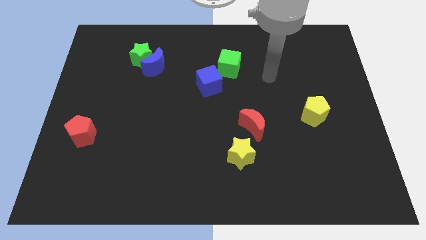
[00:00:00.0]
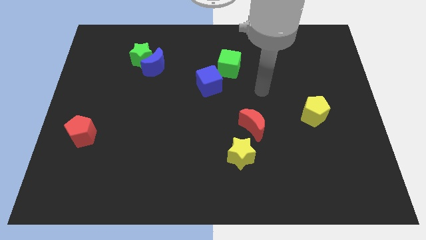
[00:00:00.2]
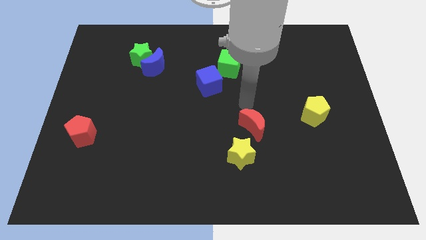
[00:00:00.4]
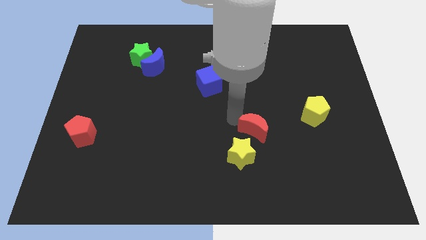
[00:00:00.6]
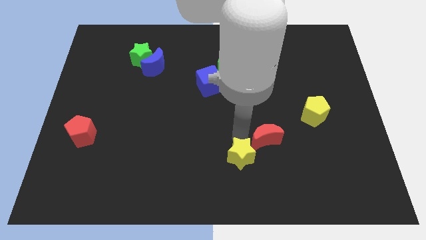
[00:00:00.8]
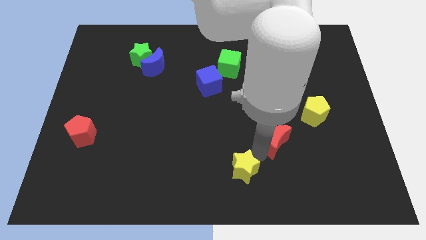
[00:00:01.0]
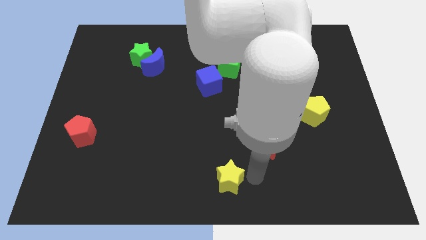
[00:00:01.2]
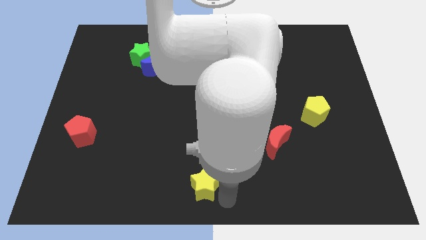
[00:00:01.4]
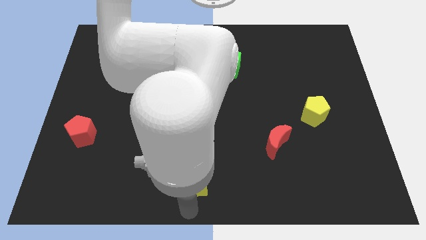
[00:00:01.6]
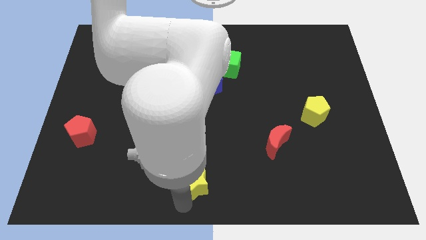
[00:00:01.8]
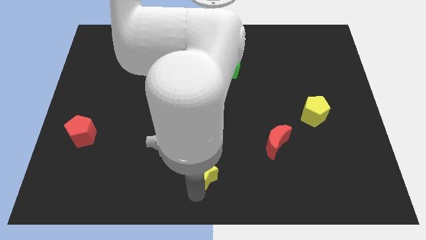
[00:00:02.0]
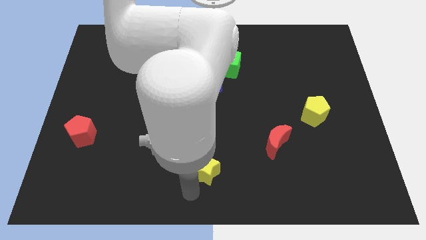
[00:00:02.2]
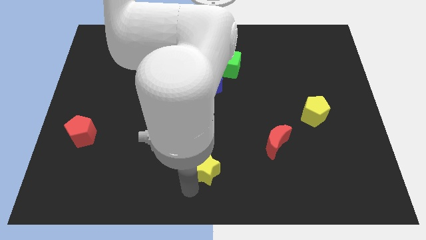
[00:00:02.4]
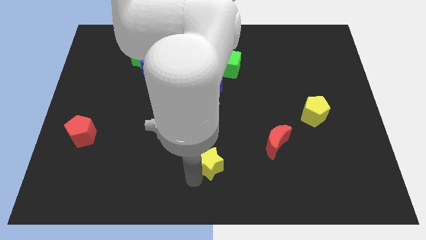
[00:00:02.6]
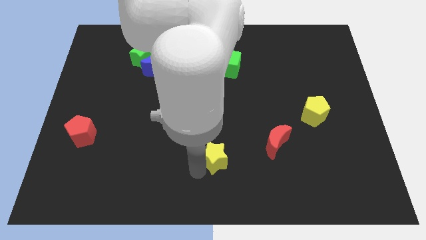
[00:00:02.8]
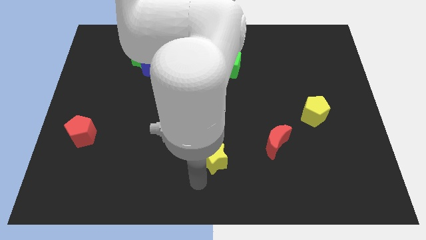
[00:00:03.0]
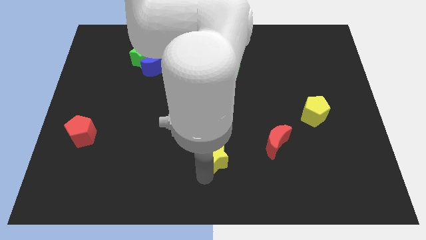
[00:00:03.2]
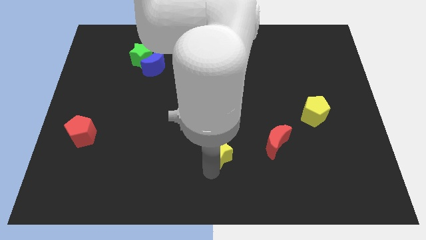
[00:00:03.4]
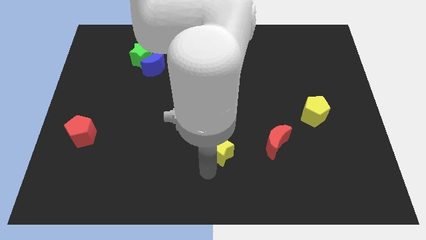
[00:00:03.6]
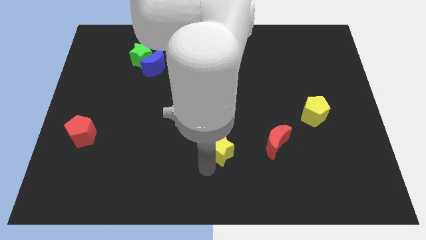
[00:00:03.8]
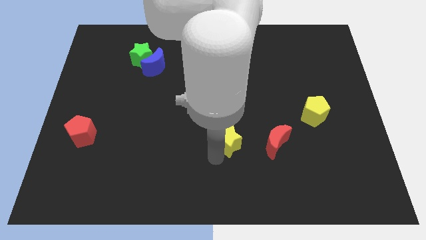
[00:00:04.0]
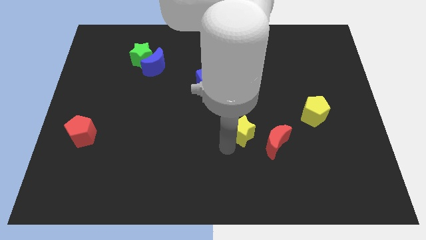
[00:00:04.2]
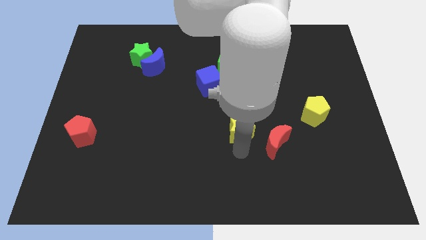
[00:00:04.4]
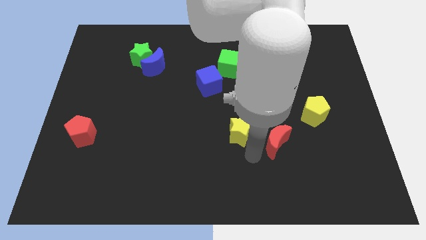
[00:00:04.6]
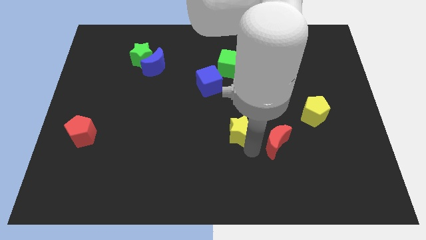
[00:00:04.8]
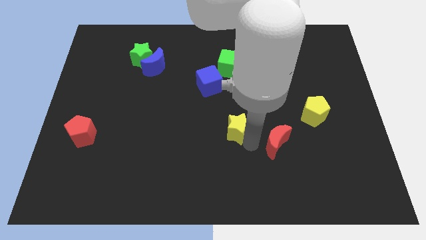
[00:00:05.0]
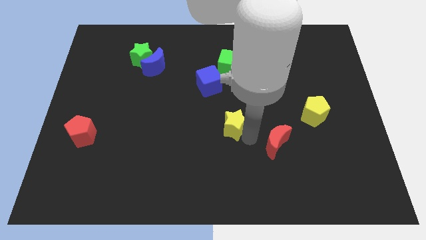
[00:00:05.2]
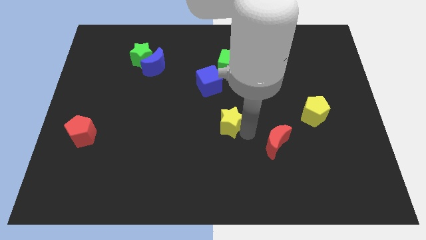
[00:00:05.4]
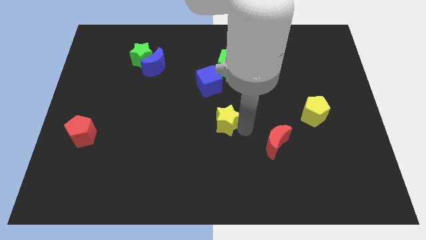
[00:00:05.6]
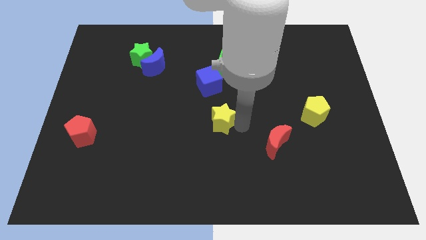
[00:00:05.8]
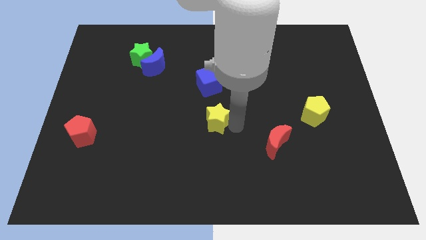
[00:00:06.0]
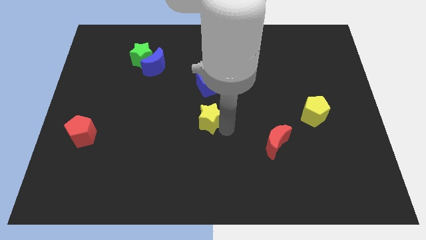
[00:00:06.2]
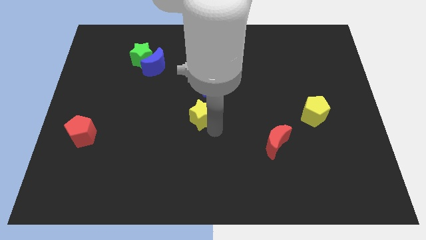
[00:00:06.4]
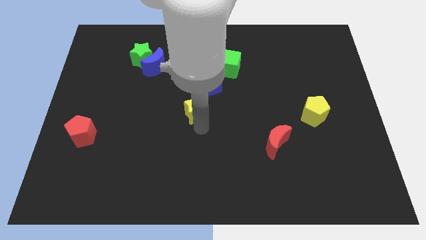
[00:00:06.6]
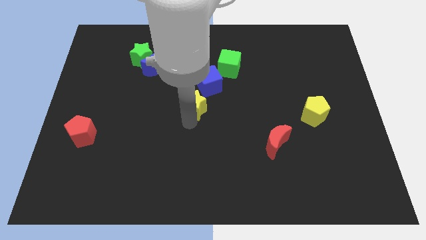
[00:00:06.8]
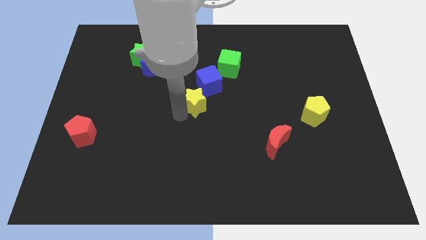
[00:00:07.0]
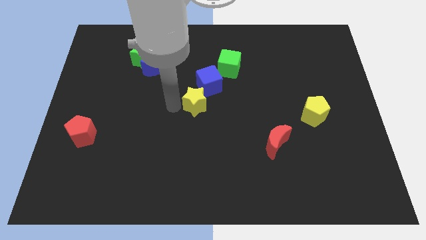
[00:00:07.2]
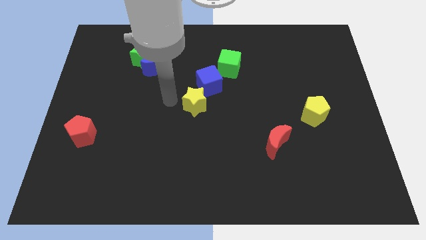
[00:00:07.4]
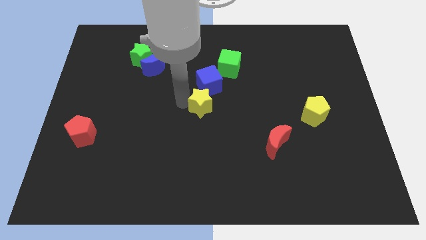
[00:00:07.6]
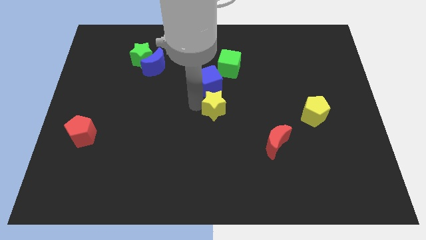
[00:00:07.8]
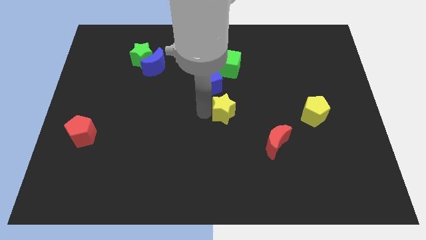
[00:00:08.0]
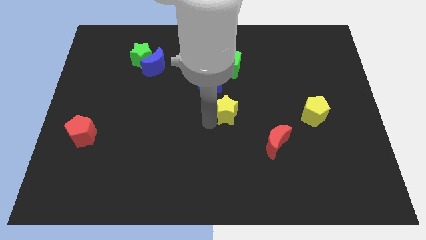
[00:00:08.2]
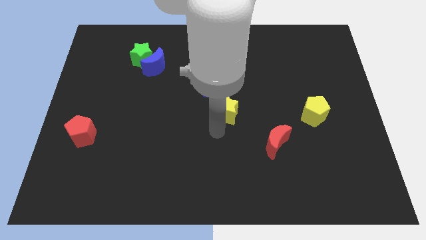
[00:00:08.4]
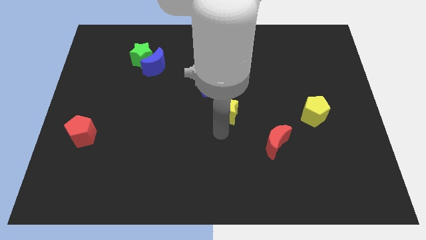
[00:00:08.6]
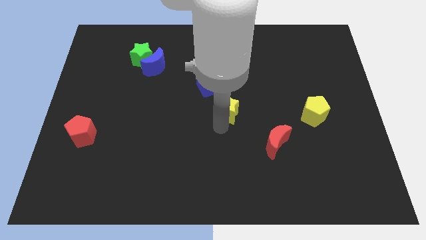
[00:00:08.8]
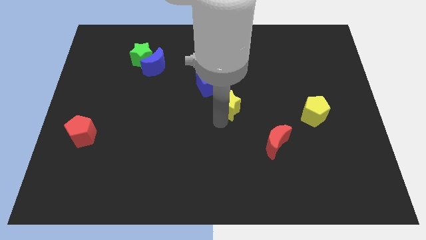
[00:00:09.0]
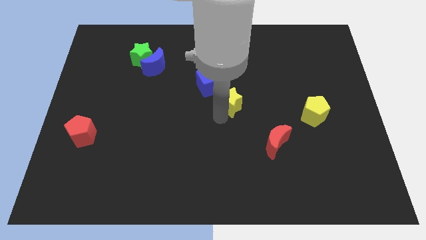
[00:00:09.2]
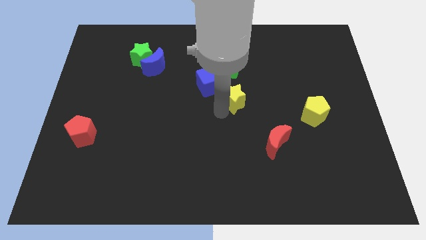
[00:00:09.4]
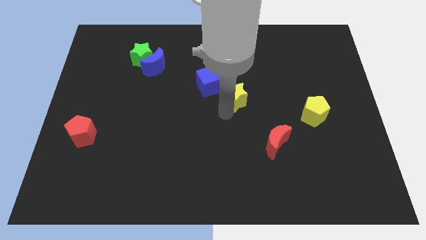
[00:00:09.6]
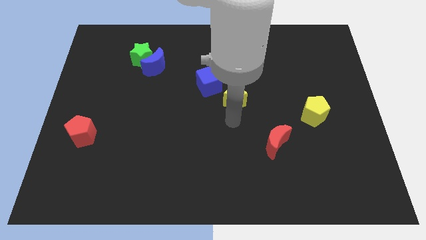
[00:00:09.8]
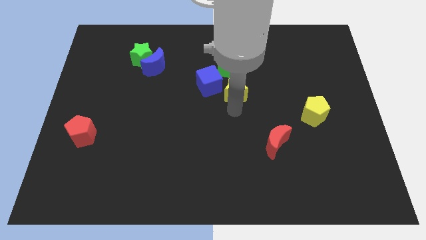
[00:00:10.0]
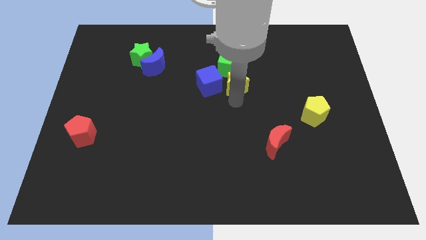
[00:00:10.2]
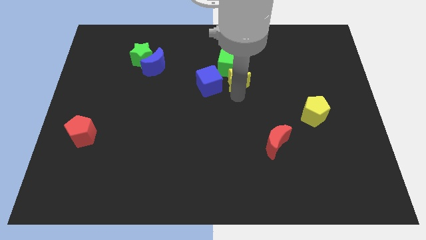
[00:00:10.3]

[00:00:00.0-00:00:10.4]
push the yellow star next to the green cube
